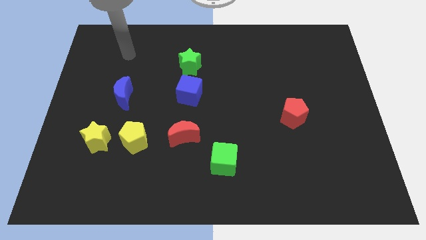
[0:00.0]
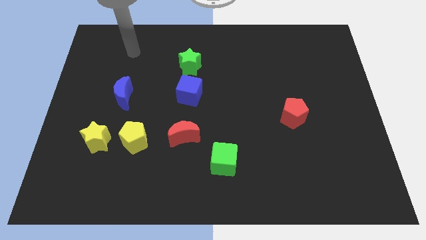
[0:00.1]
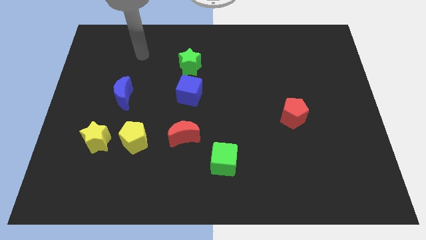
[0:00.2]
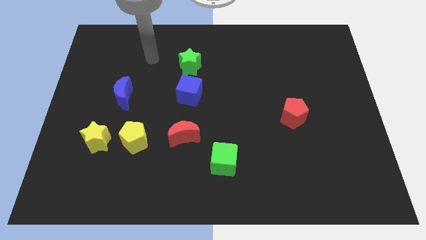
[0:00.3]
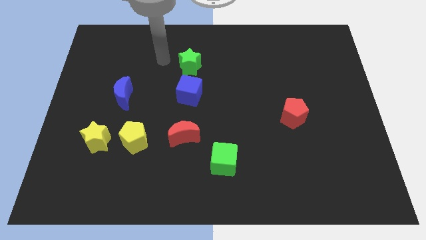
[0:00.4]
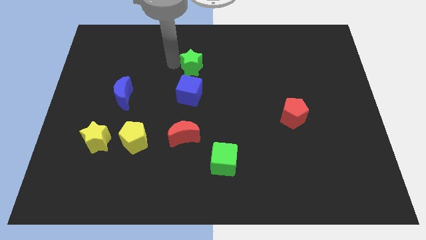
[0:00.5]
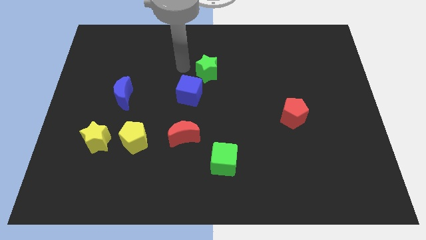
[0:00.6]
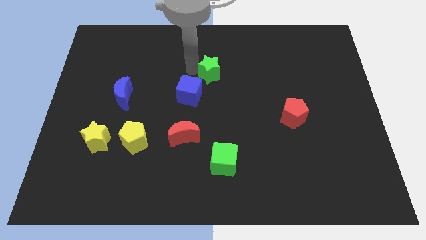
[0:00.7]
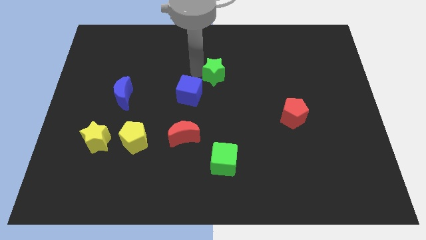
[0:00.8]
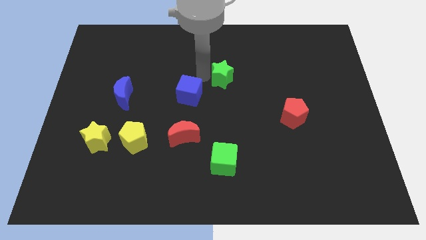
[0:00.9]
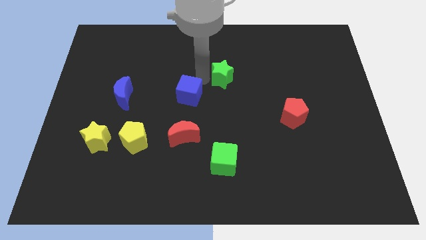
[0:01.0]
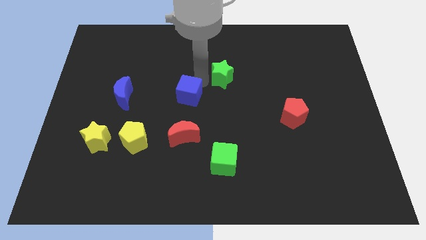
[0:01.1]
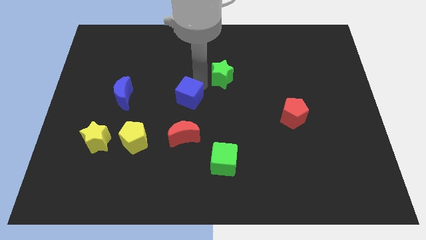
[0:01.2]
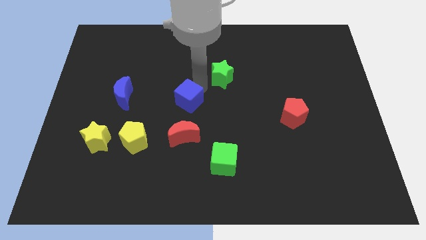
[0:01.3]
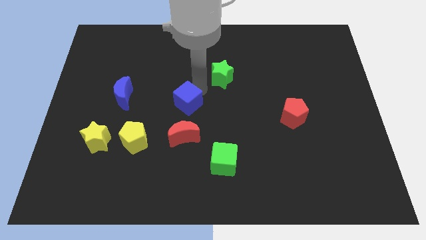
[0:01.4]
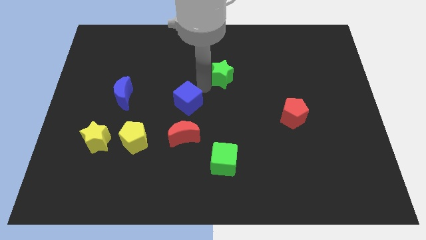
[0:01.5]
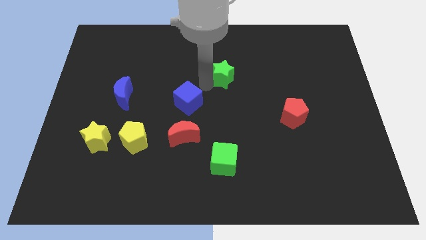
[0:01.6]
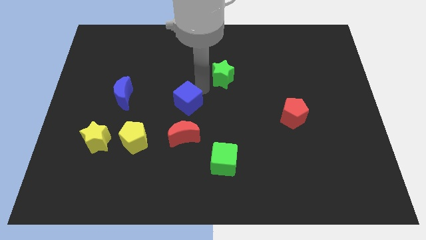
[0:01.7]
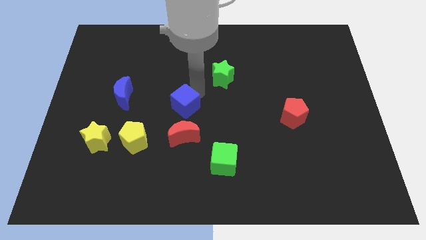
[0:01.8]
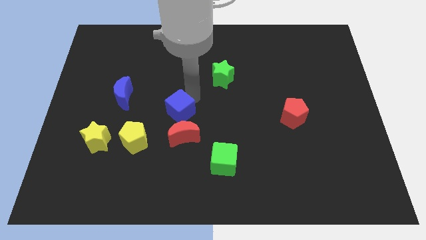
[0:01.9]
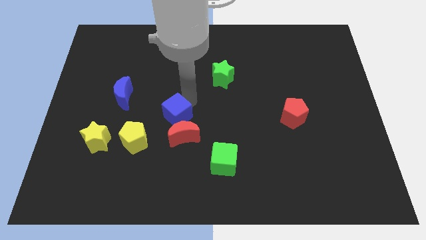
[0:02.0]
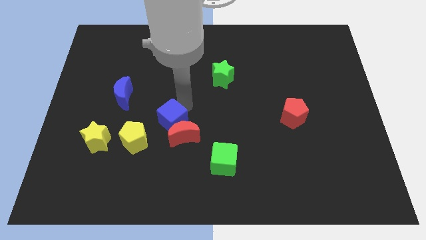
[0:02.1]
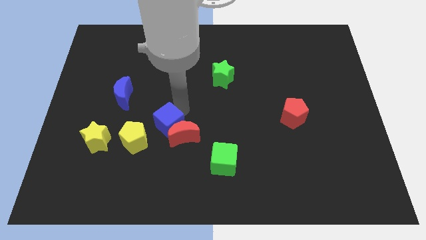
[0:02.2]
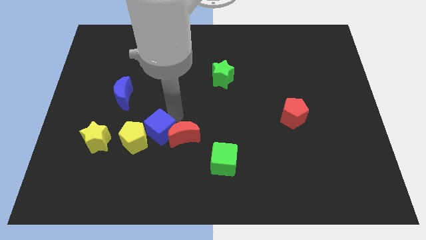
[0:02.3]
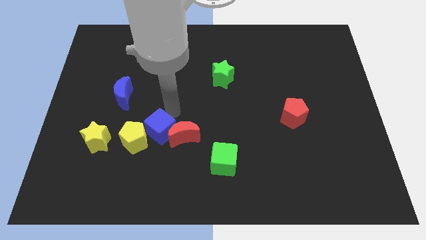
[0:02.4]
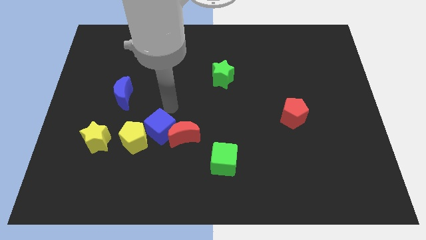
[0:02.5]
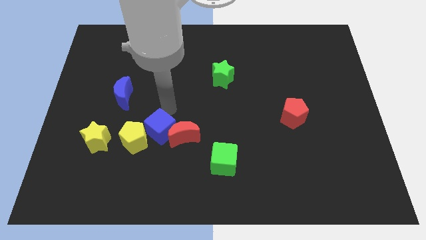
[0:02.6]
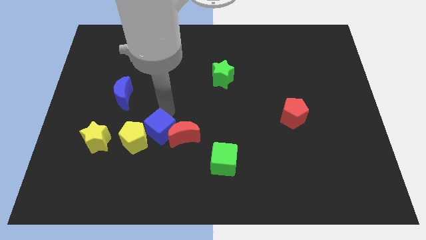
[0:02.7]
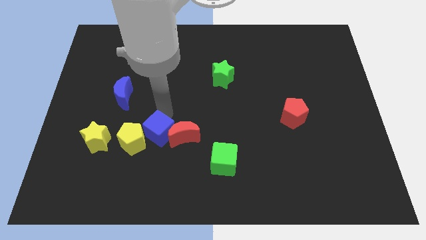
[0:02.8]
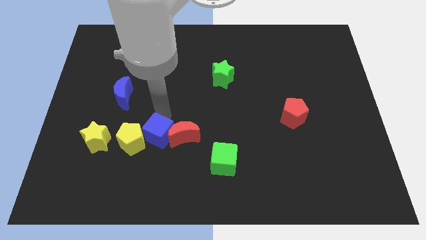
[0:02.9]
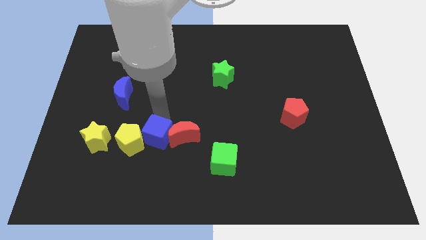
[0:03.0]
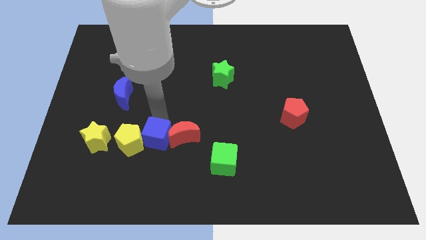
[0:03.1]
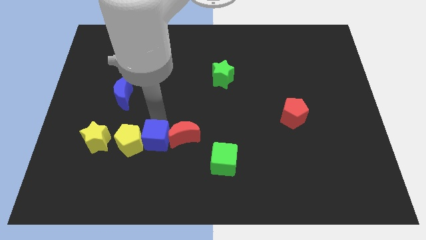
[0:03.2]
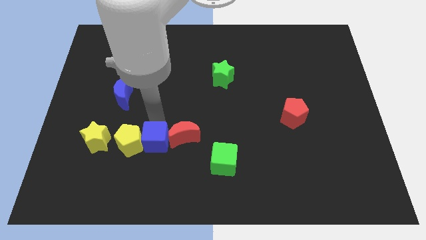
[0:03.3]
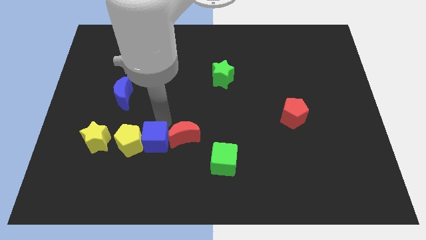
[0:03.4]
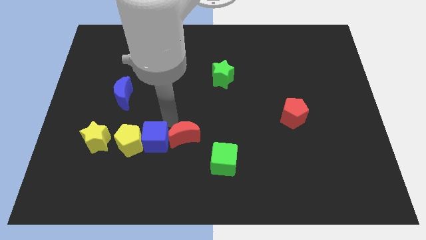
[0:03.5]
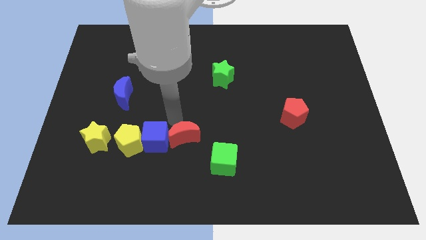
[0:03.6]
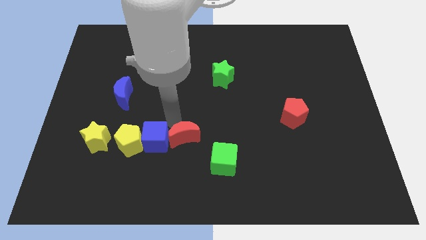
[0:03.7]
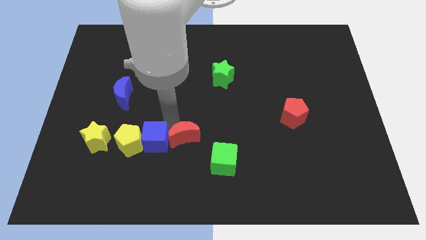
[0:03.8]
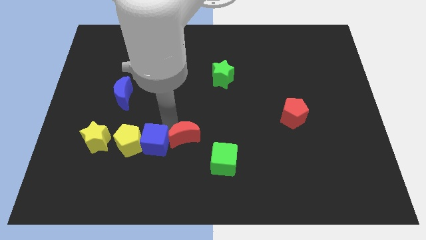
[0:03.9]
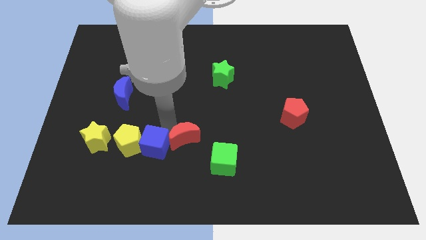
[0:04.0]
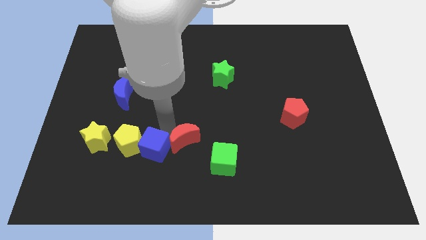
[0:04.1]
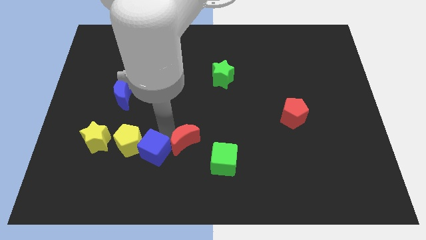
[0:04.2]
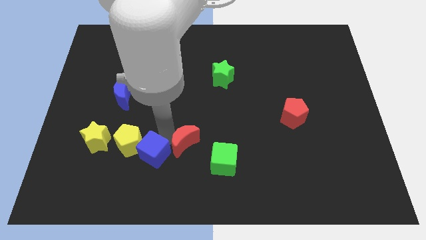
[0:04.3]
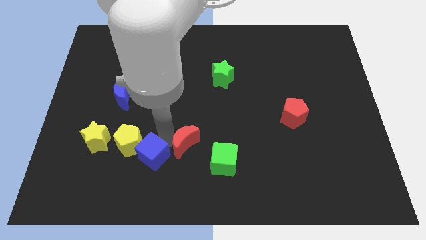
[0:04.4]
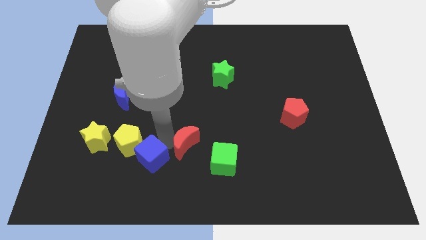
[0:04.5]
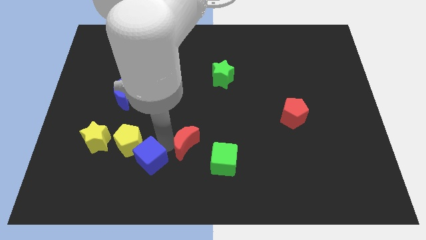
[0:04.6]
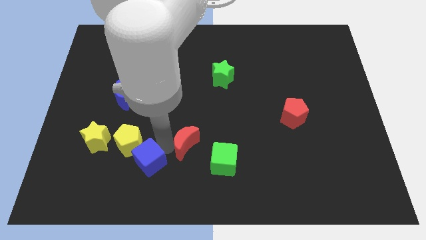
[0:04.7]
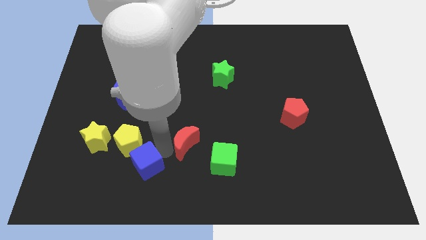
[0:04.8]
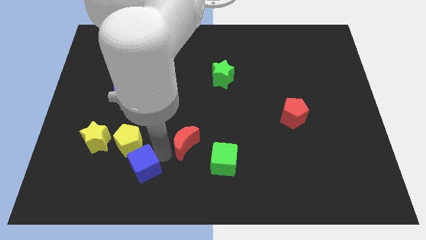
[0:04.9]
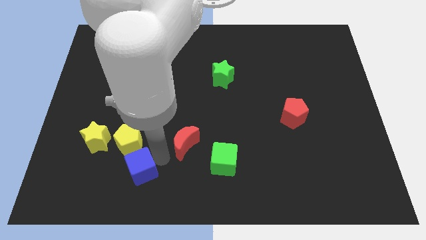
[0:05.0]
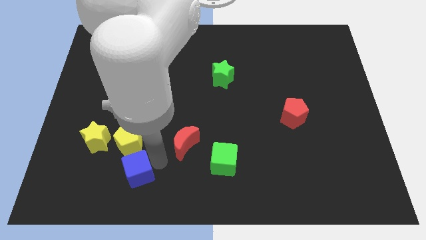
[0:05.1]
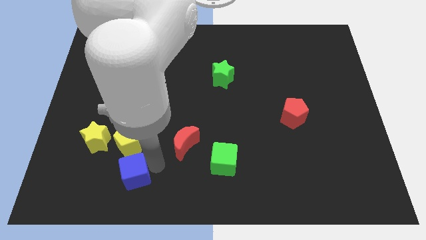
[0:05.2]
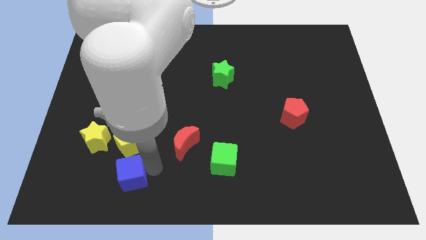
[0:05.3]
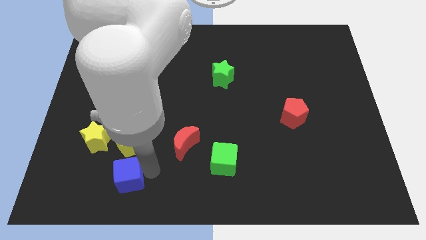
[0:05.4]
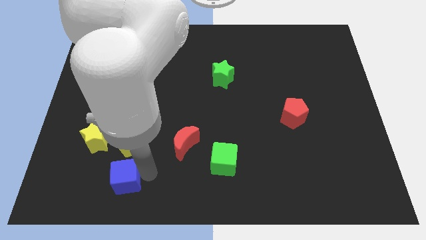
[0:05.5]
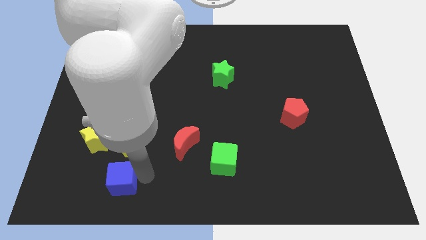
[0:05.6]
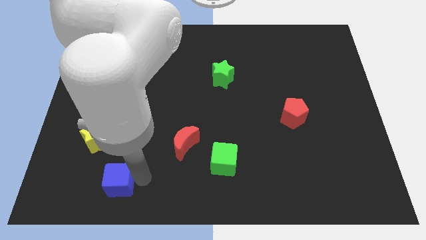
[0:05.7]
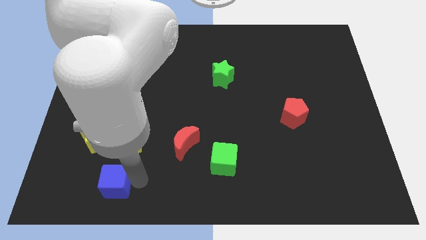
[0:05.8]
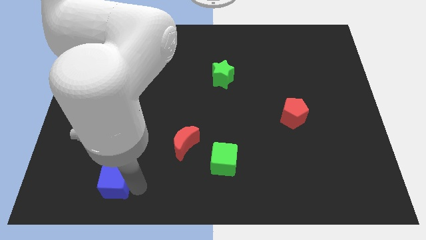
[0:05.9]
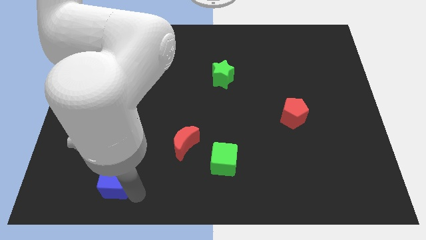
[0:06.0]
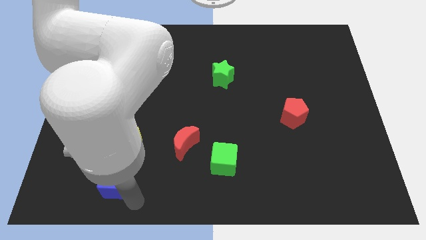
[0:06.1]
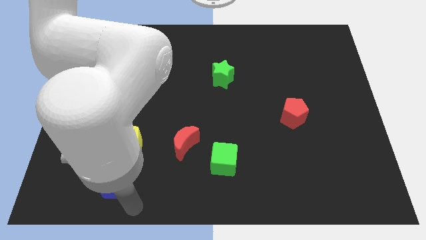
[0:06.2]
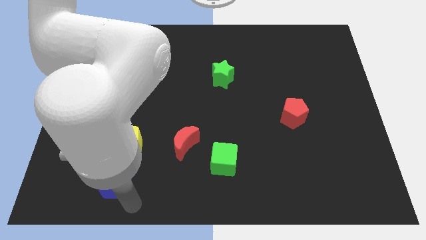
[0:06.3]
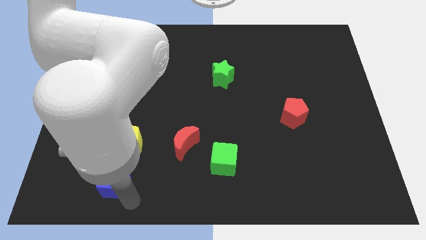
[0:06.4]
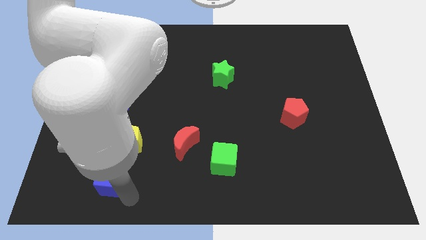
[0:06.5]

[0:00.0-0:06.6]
push the blue cube to the bottom left side of the yellow pentagon

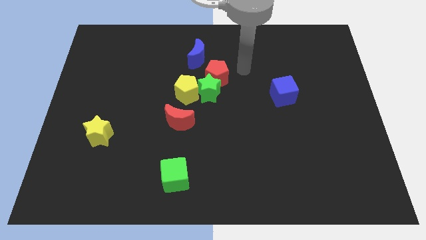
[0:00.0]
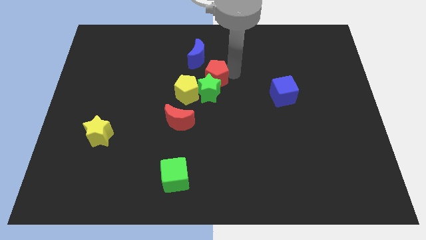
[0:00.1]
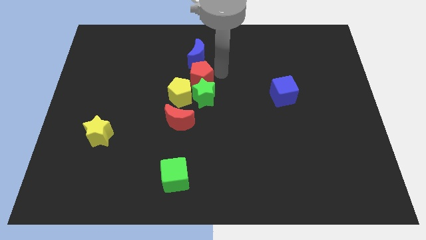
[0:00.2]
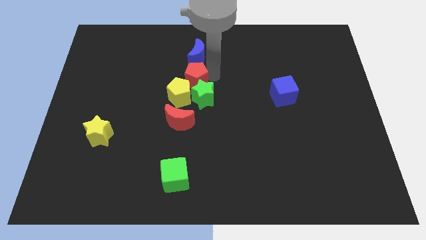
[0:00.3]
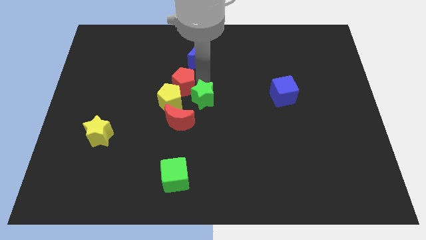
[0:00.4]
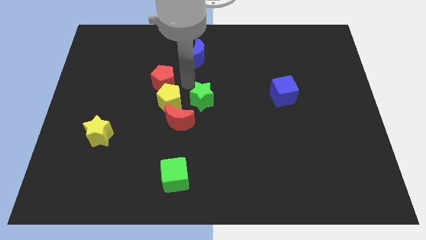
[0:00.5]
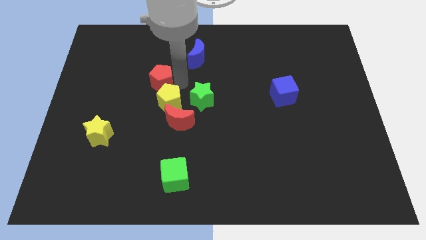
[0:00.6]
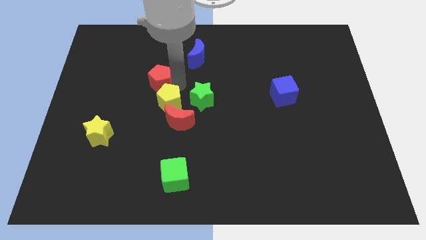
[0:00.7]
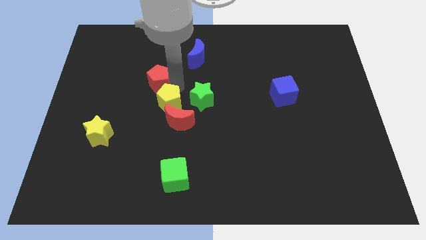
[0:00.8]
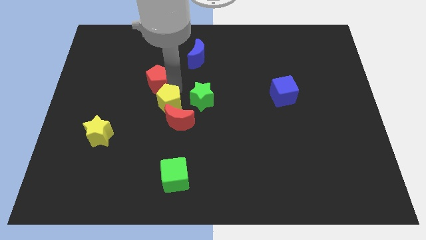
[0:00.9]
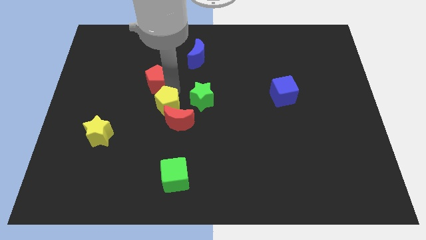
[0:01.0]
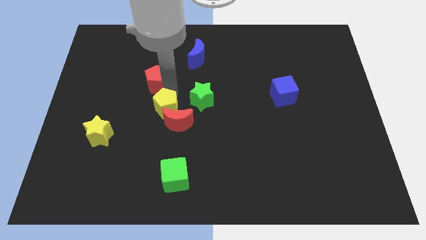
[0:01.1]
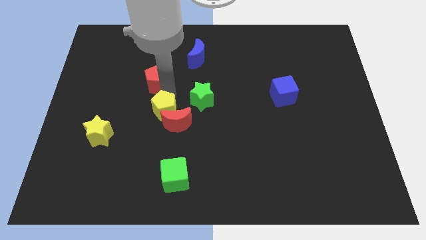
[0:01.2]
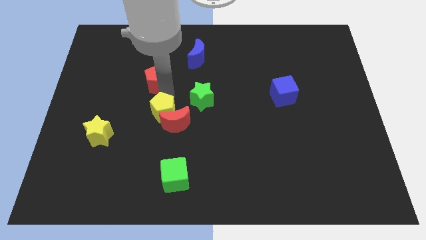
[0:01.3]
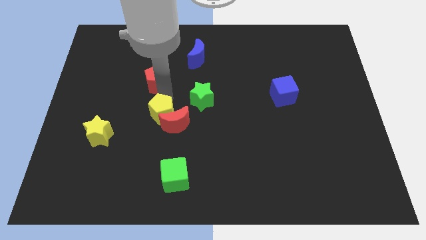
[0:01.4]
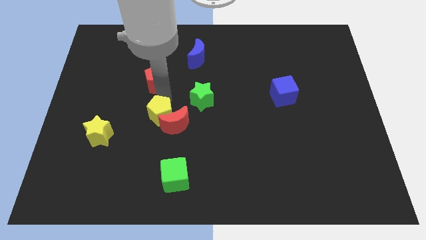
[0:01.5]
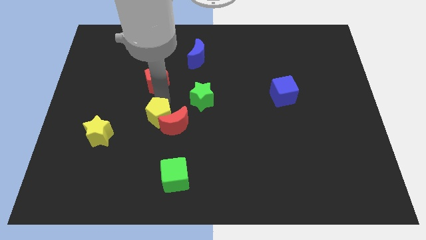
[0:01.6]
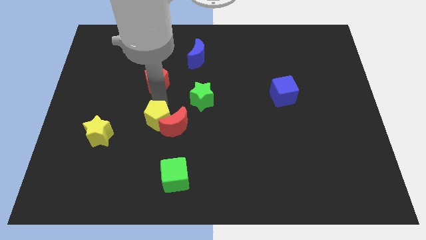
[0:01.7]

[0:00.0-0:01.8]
slide the yellow pentagon to the bottom left of the red moon

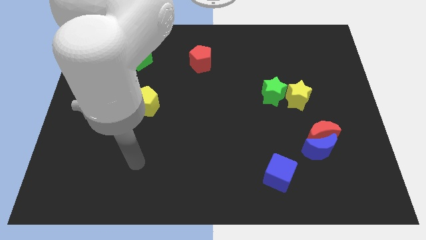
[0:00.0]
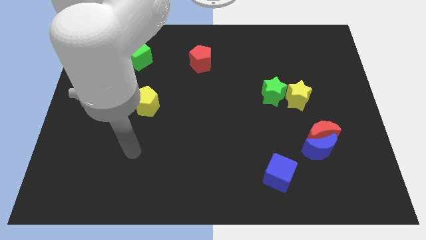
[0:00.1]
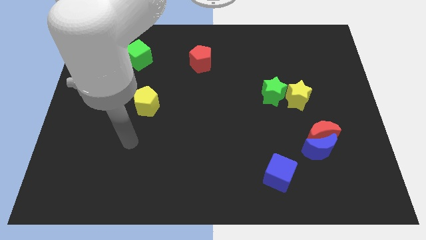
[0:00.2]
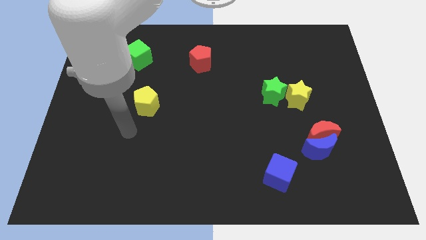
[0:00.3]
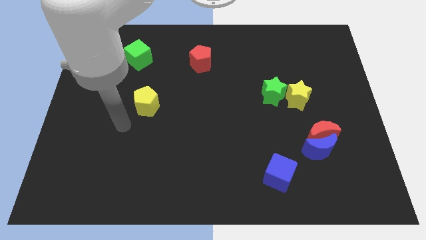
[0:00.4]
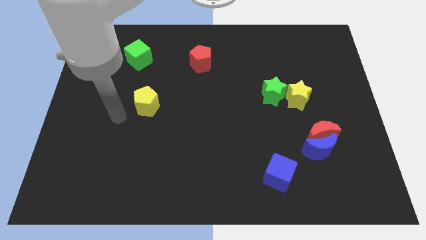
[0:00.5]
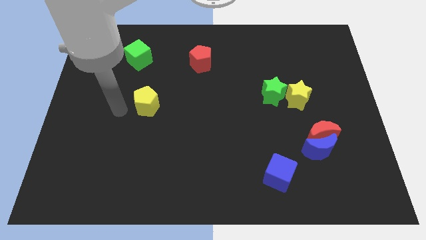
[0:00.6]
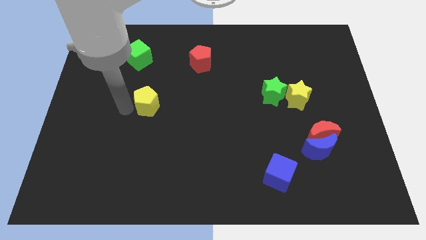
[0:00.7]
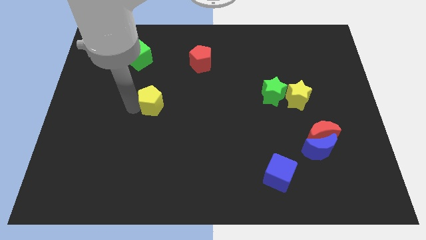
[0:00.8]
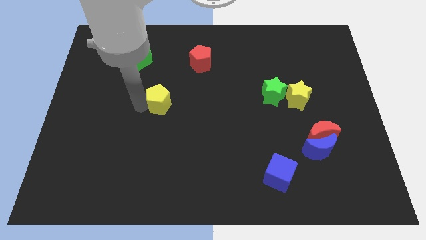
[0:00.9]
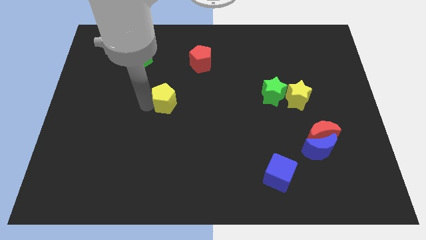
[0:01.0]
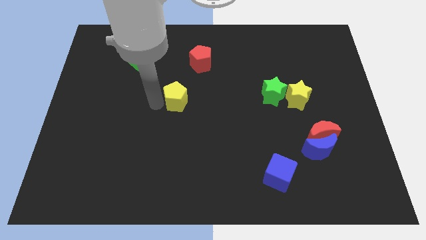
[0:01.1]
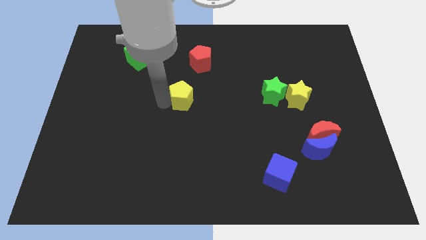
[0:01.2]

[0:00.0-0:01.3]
push the yellow pentagon to the bottom of the red pentagon
